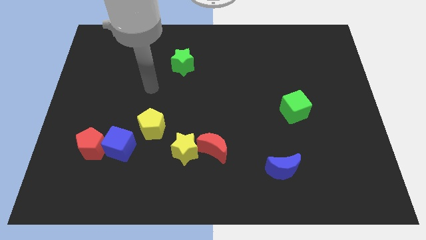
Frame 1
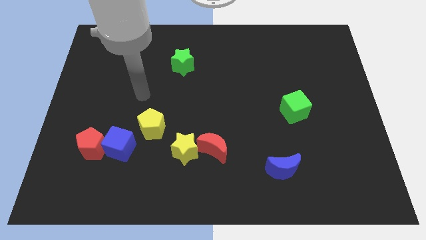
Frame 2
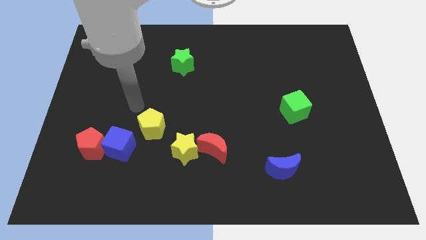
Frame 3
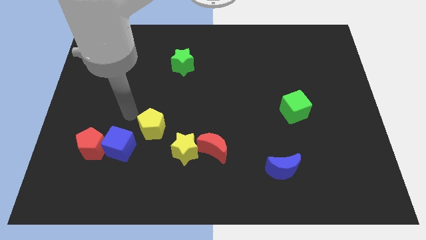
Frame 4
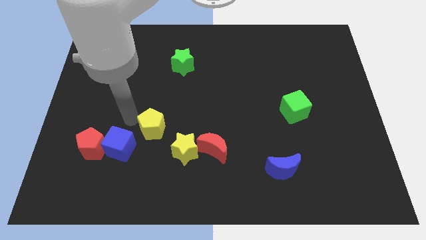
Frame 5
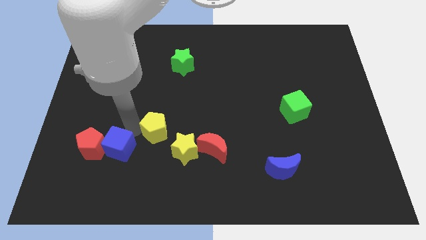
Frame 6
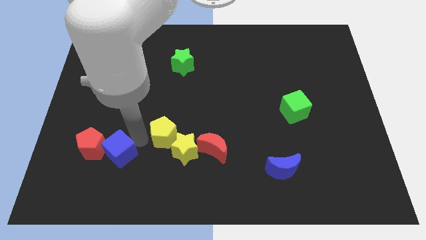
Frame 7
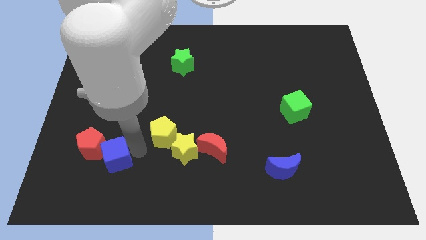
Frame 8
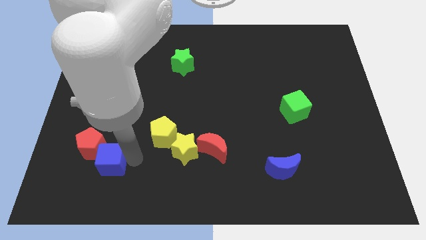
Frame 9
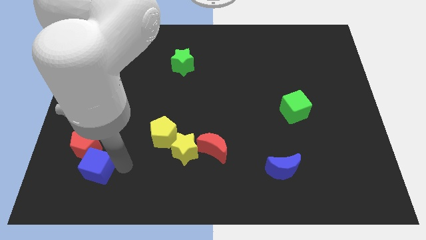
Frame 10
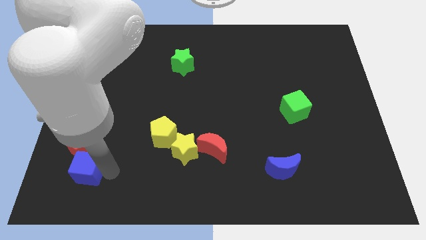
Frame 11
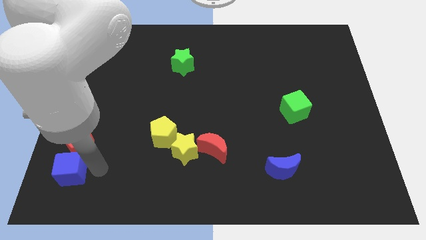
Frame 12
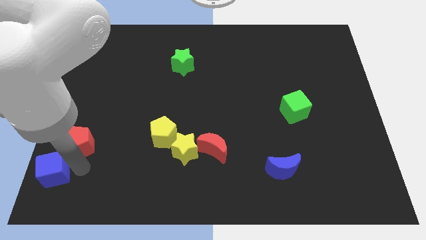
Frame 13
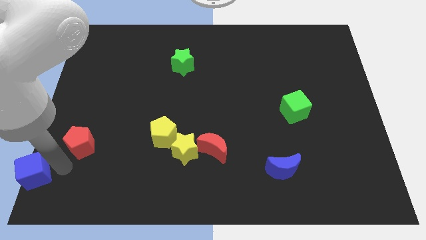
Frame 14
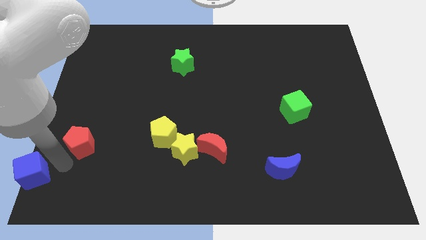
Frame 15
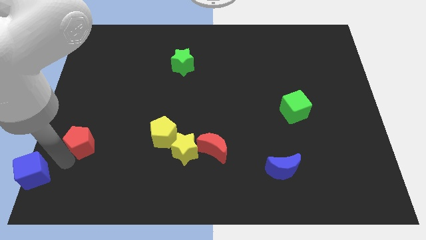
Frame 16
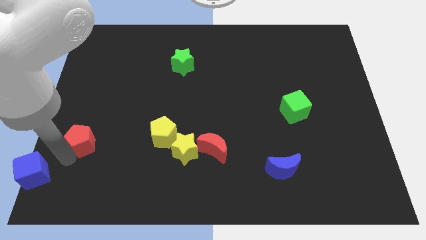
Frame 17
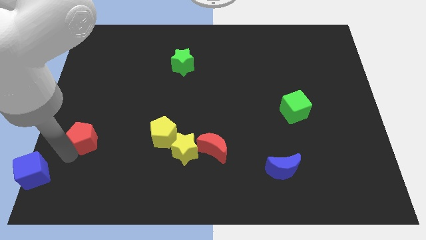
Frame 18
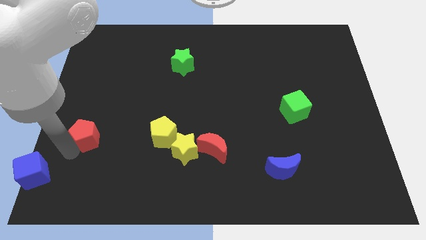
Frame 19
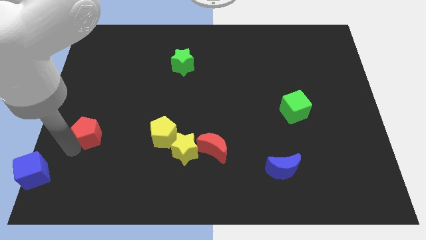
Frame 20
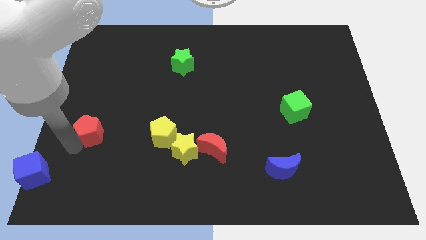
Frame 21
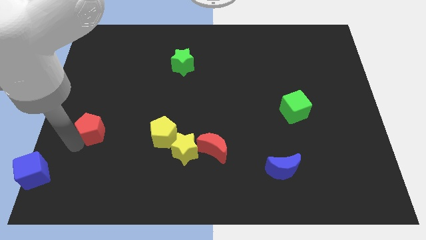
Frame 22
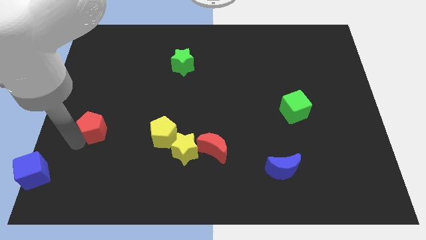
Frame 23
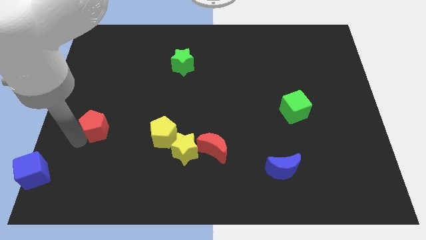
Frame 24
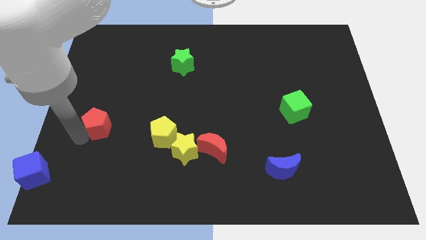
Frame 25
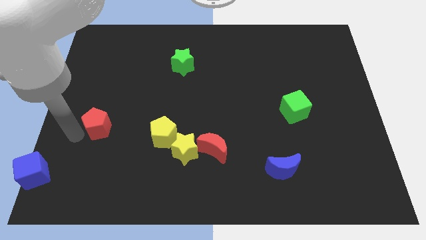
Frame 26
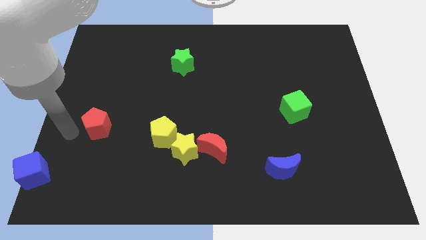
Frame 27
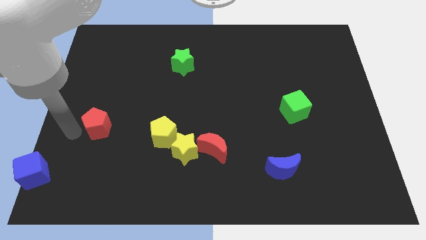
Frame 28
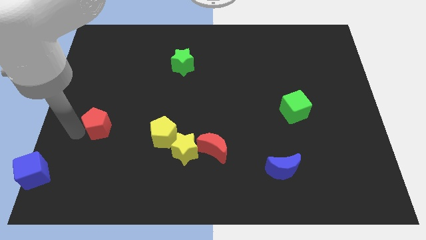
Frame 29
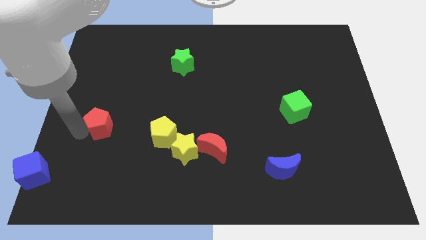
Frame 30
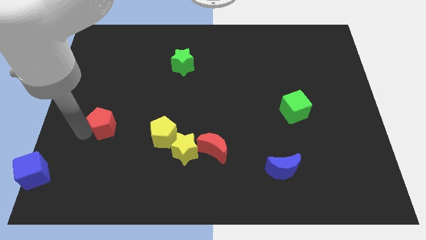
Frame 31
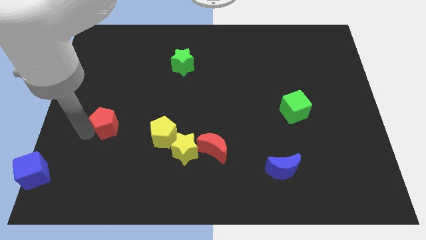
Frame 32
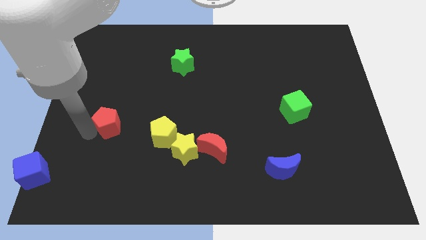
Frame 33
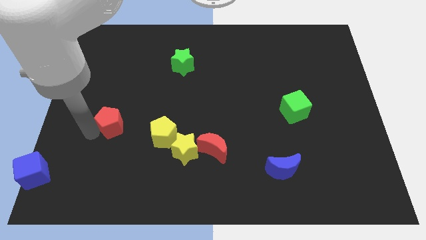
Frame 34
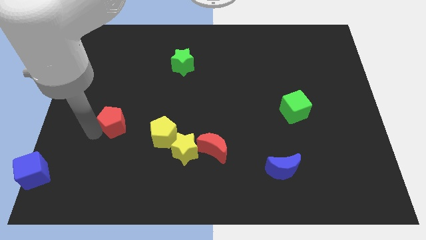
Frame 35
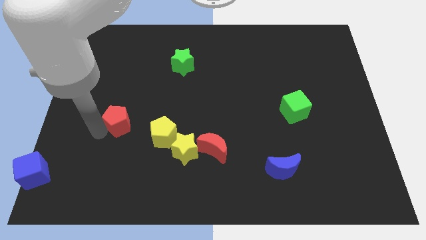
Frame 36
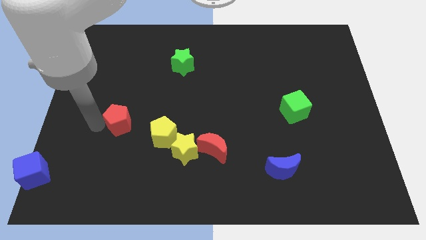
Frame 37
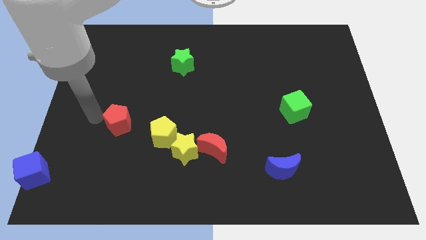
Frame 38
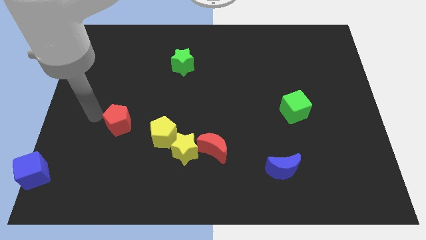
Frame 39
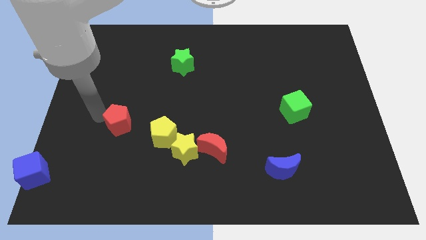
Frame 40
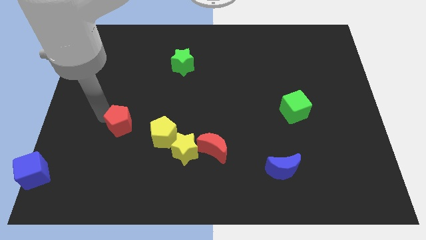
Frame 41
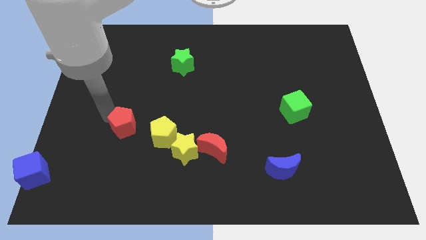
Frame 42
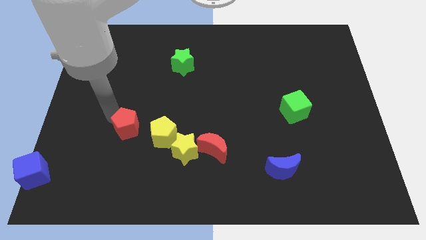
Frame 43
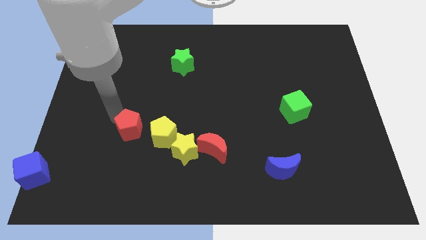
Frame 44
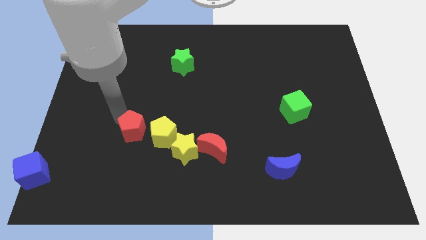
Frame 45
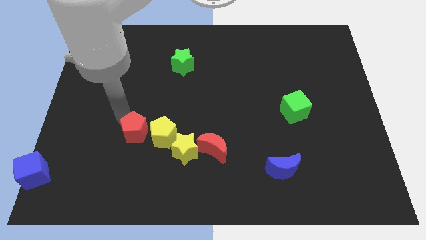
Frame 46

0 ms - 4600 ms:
push the red pentagon next to the yellow pentagon

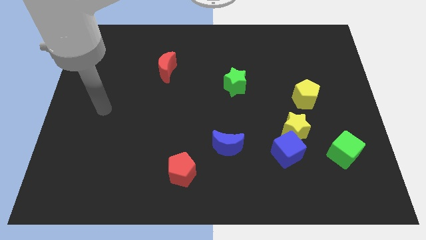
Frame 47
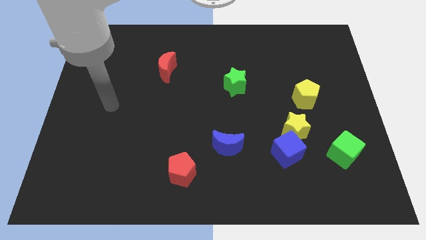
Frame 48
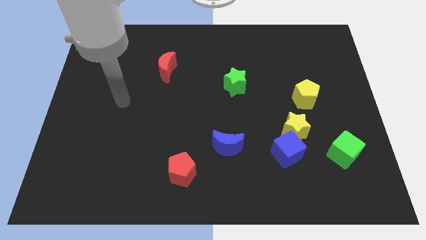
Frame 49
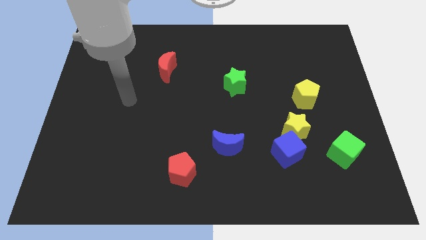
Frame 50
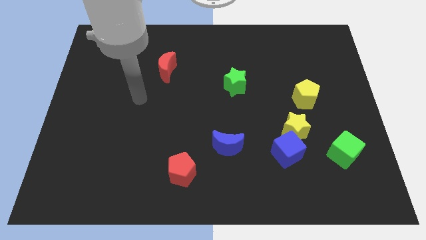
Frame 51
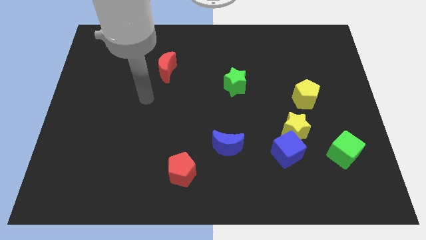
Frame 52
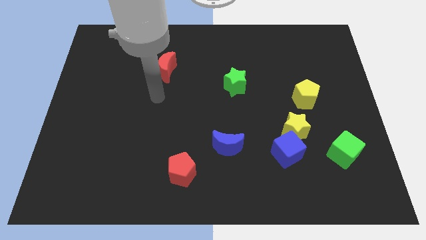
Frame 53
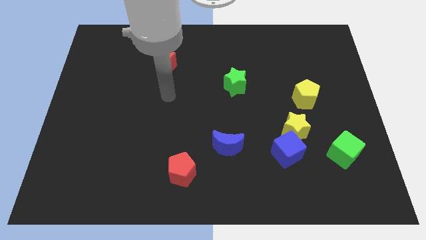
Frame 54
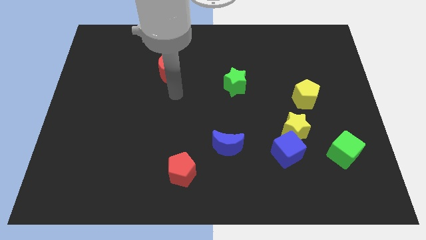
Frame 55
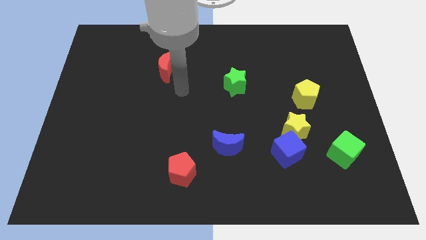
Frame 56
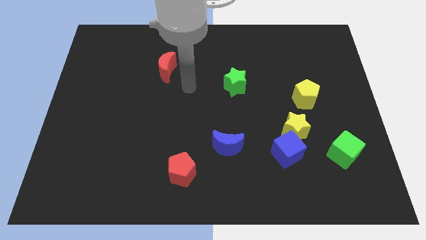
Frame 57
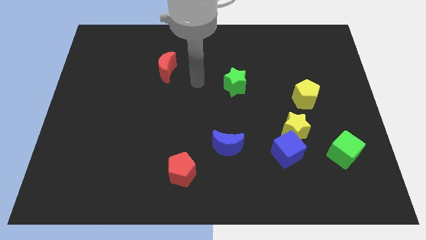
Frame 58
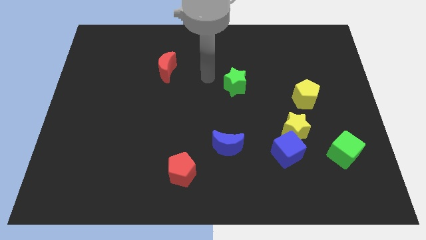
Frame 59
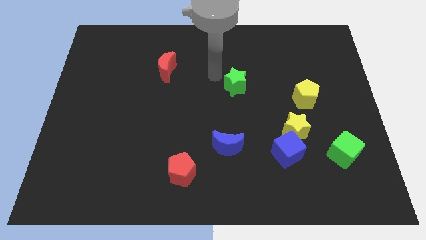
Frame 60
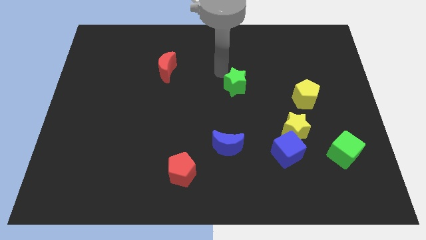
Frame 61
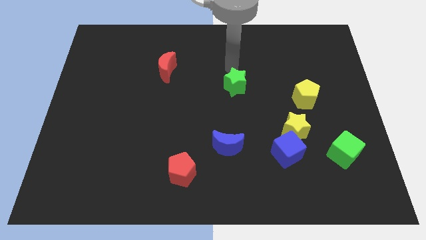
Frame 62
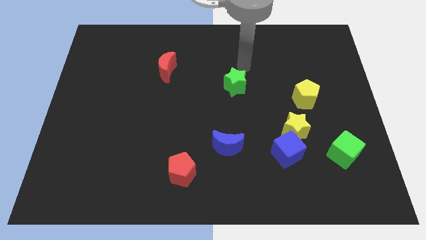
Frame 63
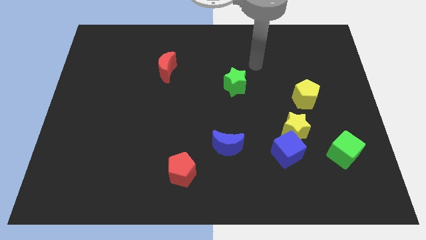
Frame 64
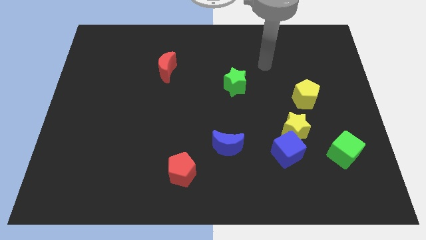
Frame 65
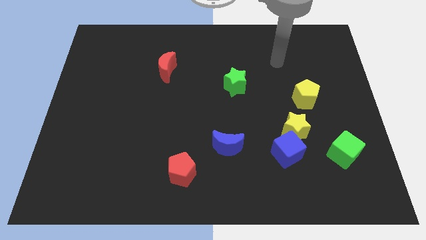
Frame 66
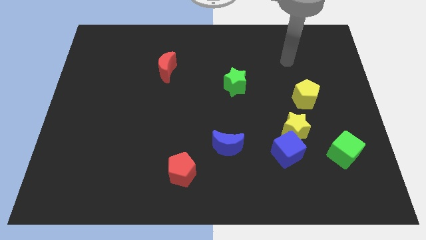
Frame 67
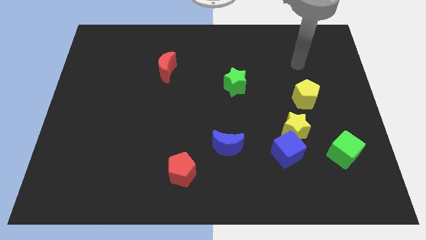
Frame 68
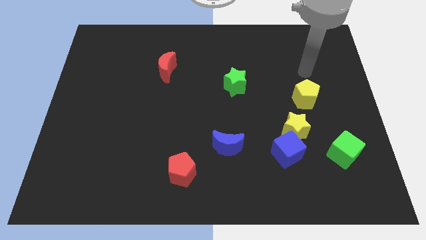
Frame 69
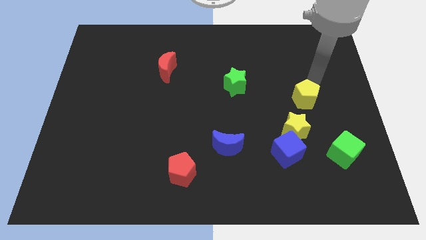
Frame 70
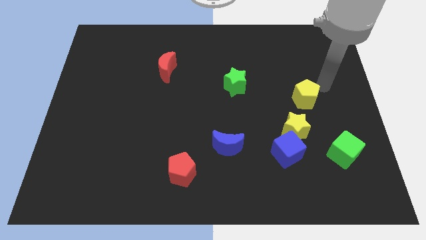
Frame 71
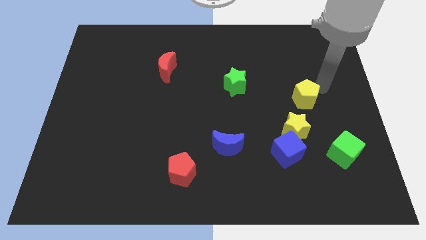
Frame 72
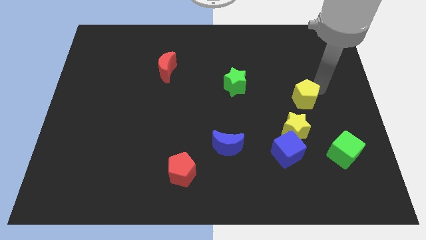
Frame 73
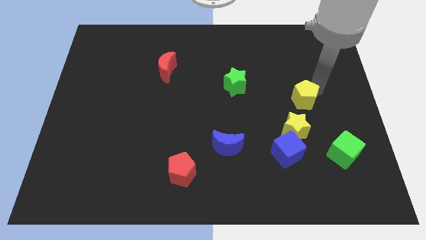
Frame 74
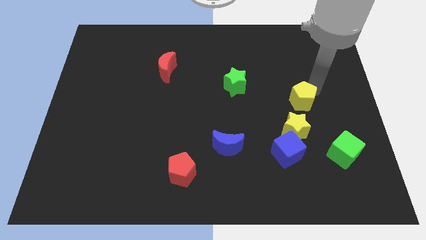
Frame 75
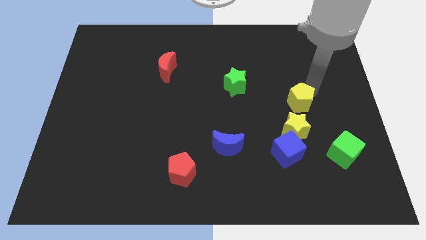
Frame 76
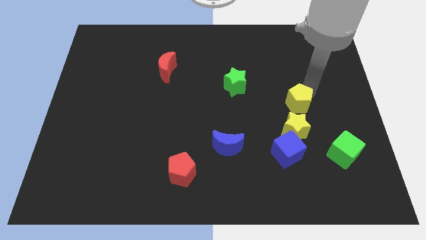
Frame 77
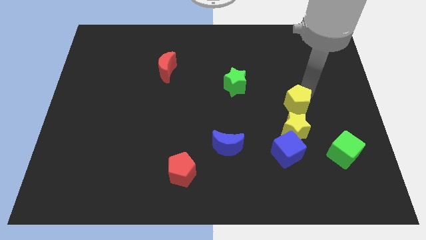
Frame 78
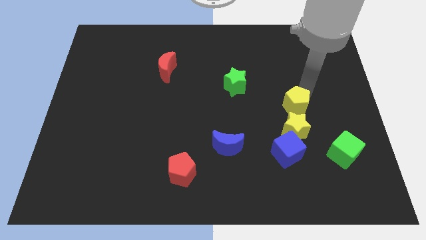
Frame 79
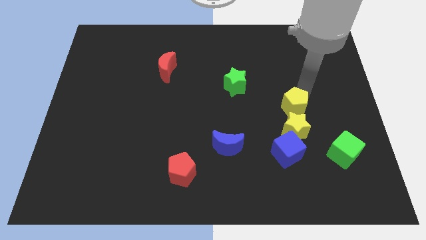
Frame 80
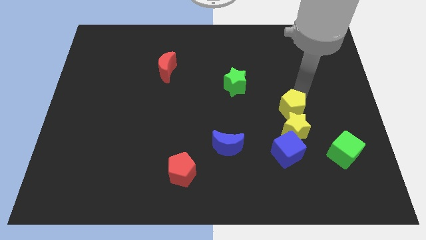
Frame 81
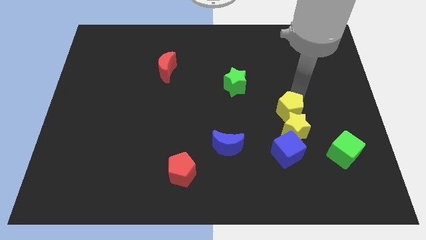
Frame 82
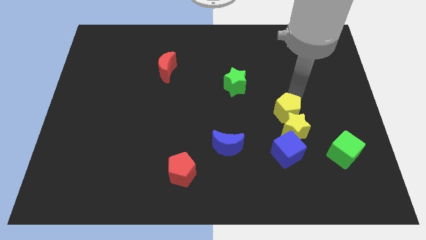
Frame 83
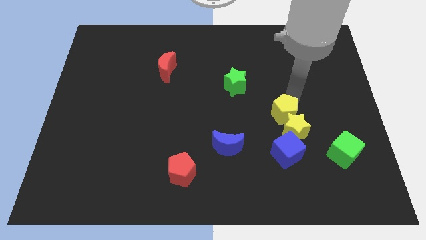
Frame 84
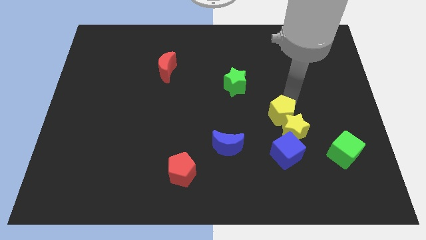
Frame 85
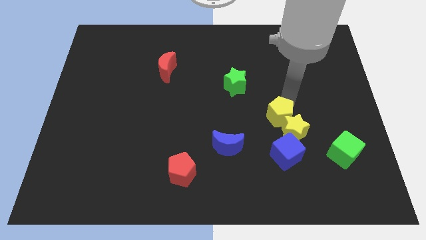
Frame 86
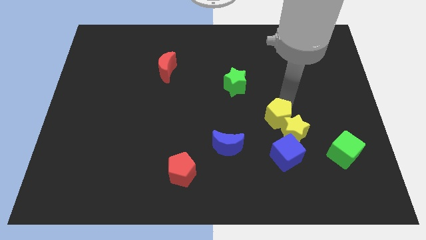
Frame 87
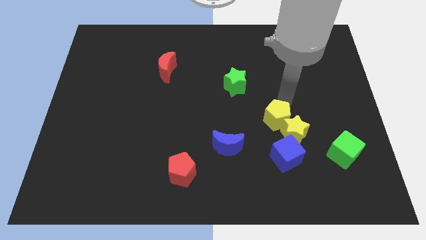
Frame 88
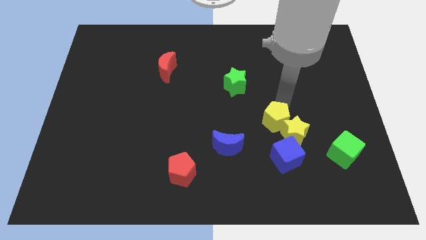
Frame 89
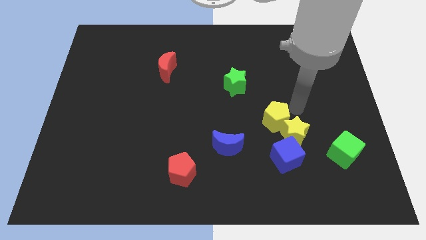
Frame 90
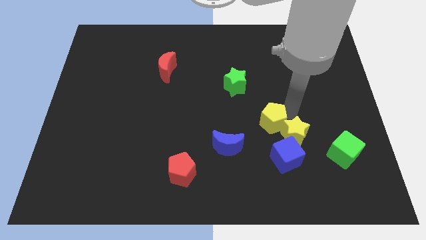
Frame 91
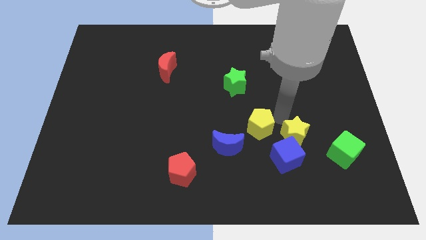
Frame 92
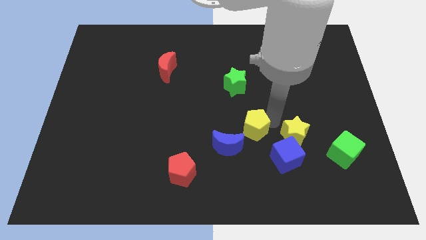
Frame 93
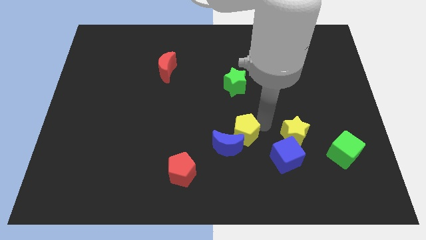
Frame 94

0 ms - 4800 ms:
slide the yellow pentagon next to the blue moon
